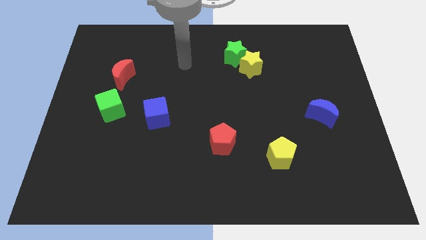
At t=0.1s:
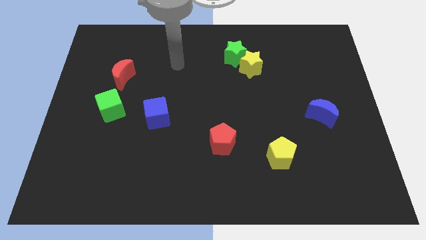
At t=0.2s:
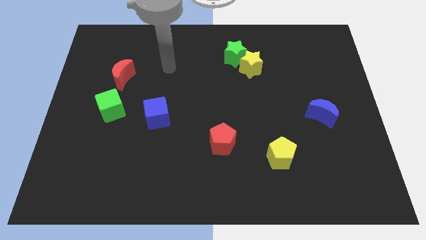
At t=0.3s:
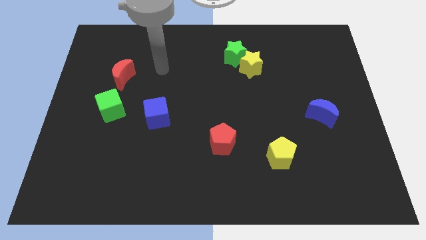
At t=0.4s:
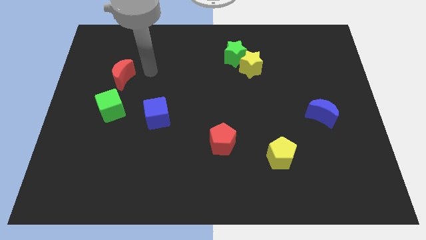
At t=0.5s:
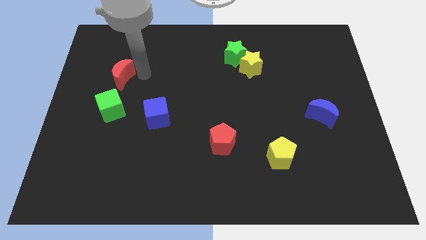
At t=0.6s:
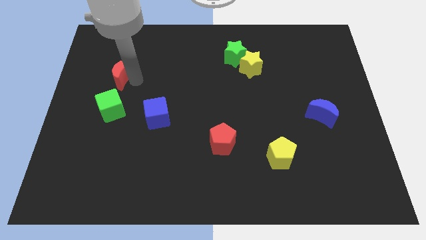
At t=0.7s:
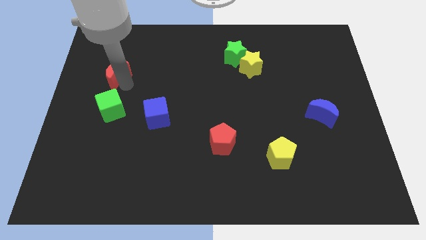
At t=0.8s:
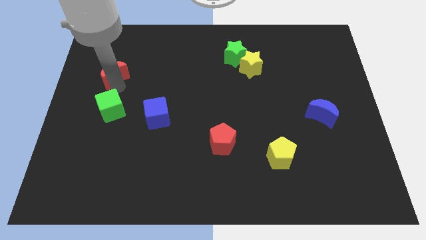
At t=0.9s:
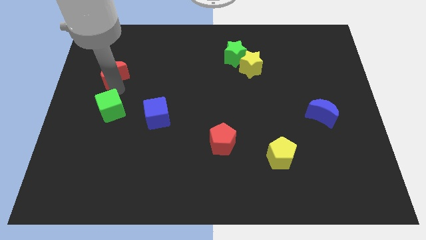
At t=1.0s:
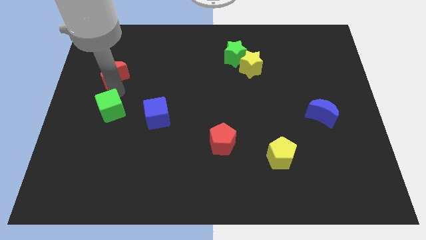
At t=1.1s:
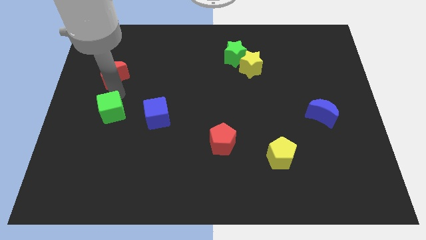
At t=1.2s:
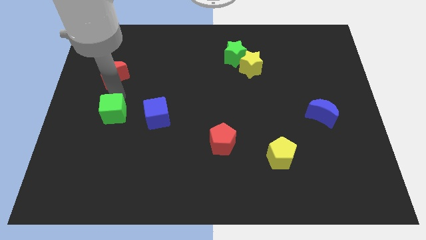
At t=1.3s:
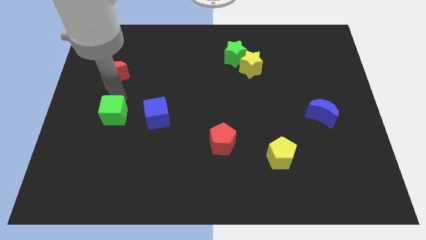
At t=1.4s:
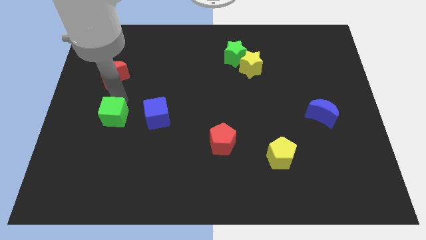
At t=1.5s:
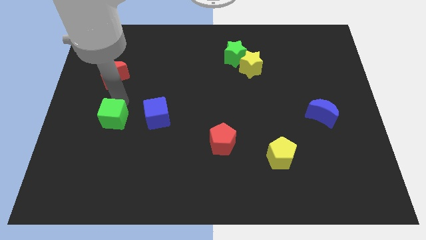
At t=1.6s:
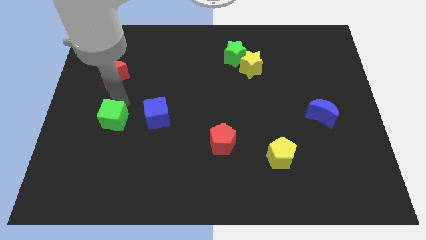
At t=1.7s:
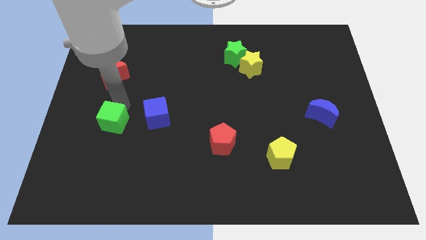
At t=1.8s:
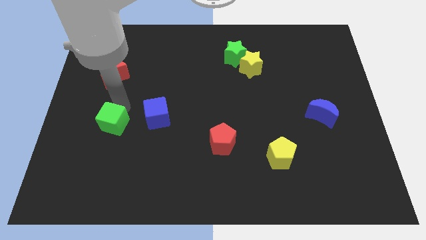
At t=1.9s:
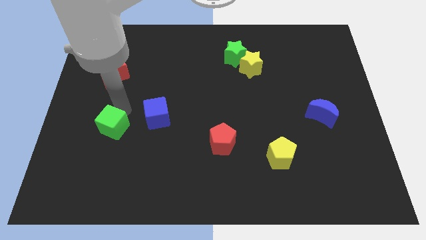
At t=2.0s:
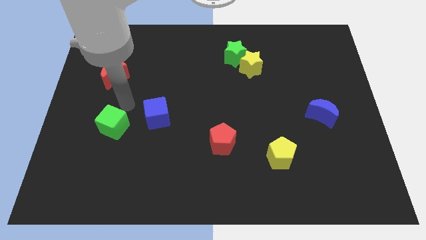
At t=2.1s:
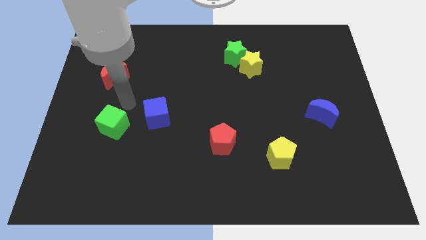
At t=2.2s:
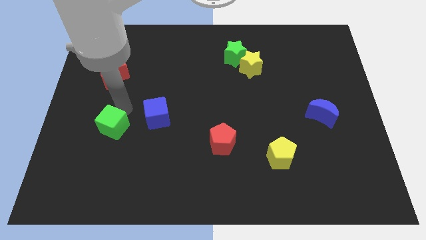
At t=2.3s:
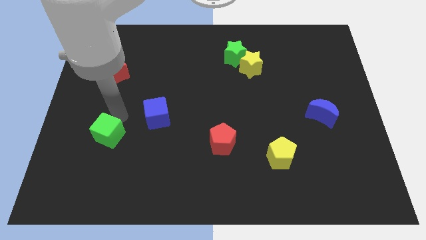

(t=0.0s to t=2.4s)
slide the green cube downwards slightly

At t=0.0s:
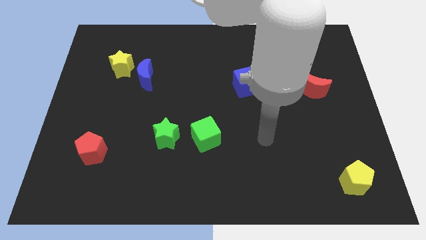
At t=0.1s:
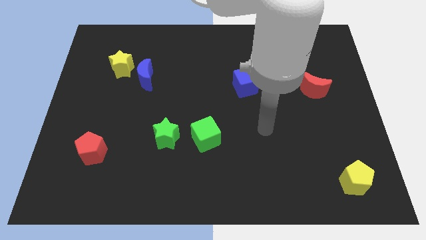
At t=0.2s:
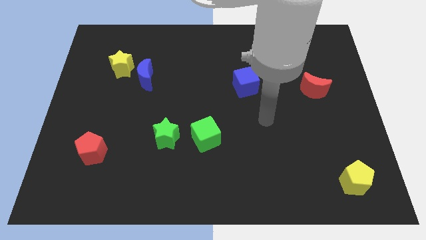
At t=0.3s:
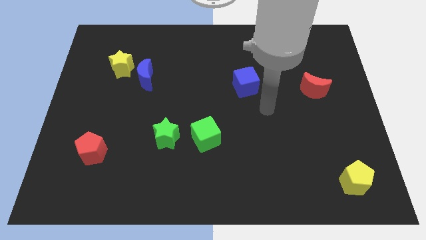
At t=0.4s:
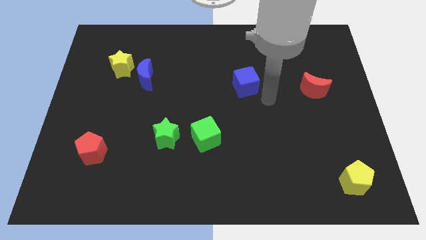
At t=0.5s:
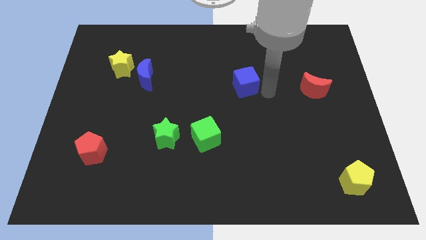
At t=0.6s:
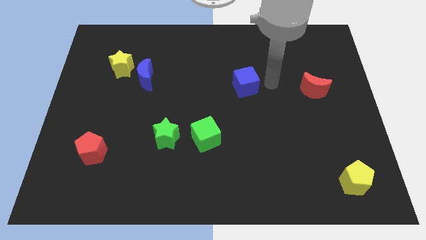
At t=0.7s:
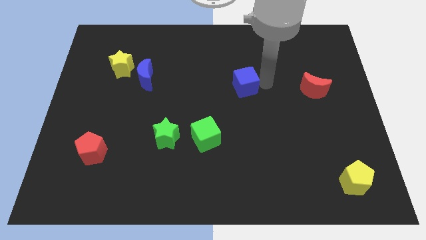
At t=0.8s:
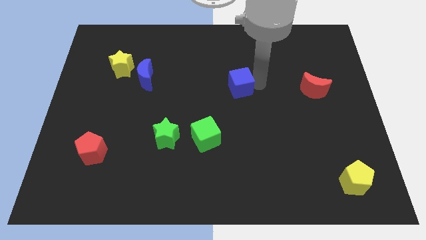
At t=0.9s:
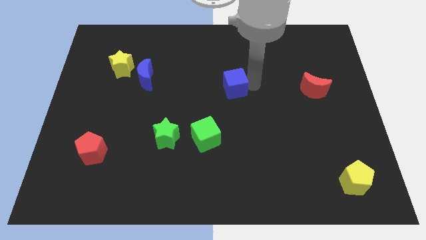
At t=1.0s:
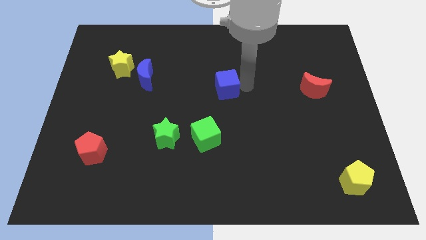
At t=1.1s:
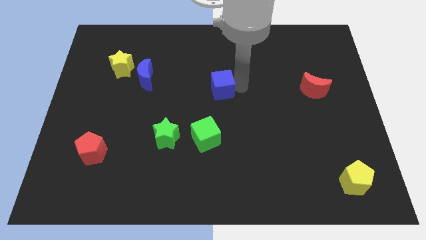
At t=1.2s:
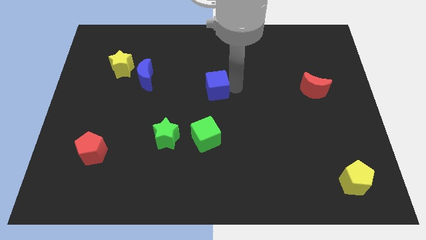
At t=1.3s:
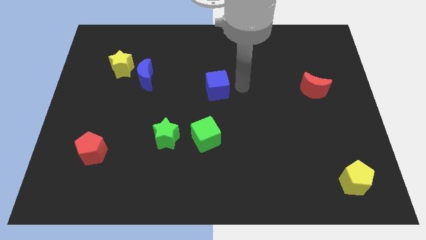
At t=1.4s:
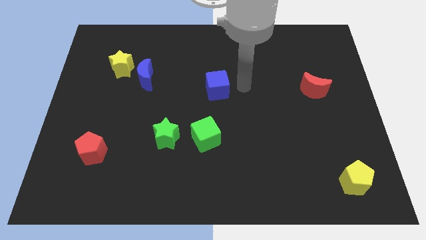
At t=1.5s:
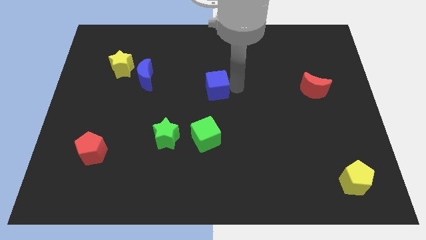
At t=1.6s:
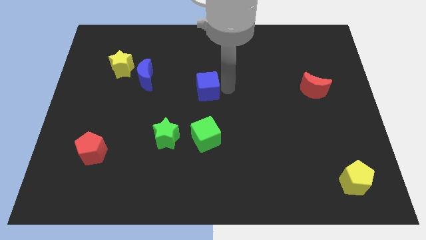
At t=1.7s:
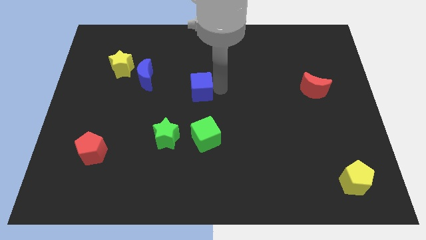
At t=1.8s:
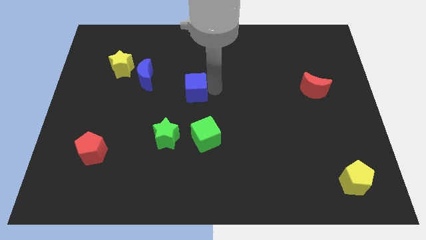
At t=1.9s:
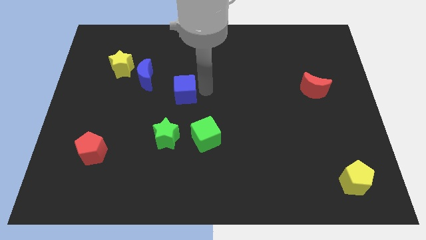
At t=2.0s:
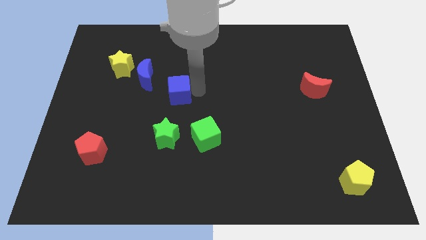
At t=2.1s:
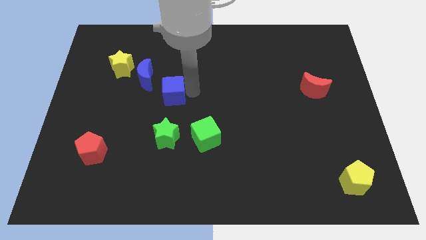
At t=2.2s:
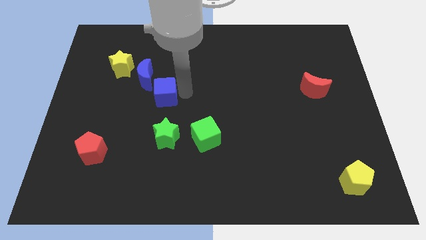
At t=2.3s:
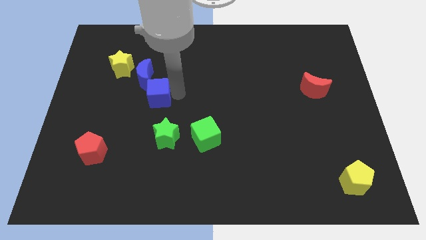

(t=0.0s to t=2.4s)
move the blue cube left

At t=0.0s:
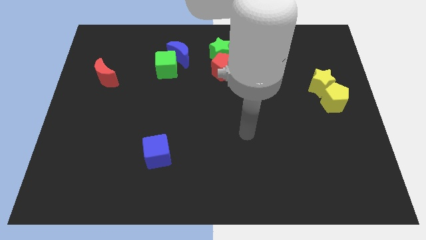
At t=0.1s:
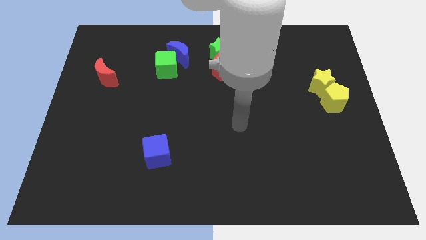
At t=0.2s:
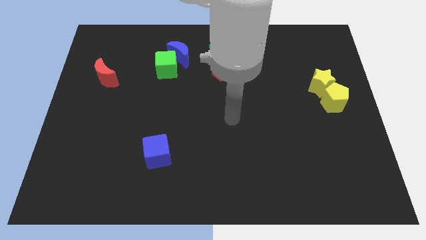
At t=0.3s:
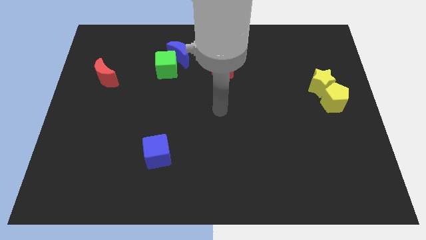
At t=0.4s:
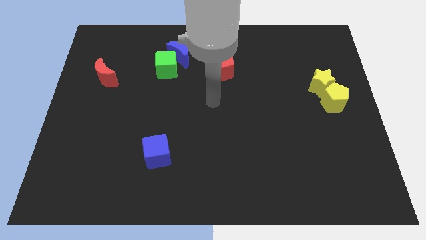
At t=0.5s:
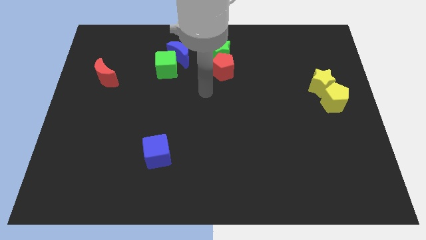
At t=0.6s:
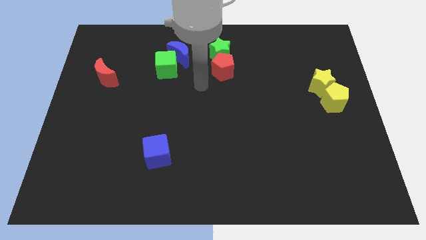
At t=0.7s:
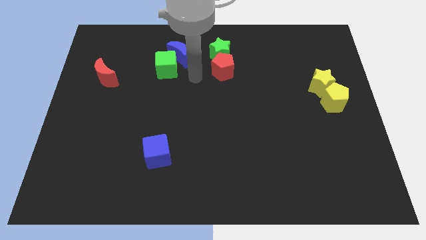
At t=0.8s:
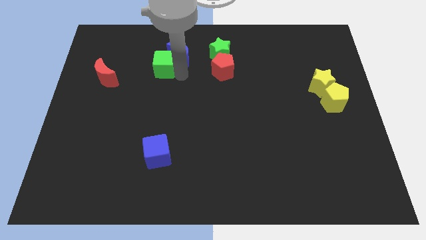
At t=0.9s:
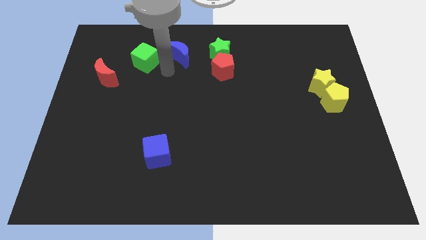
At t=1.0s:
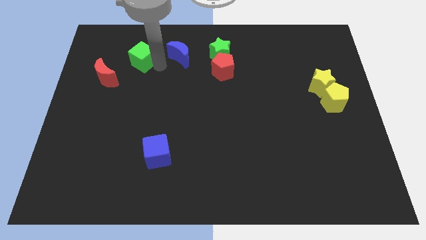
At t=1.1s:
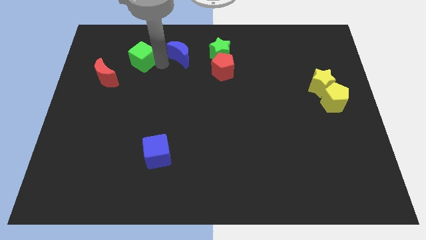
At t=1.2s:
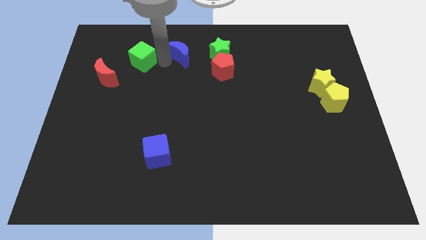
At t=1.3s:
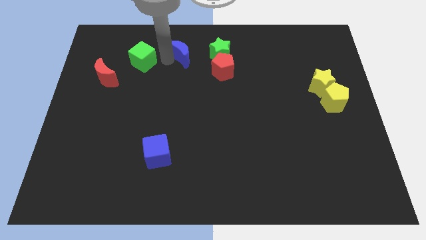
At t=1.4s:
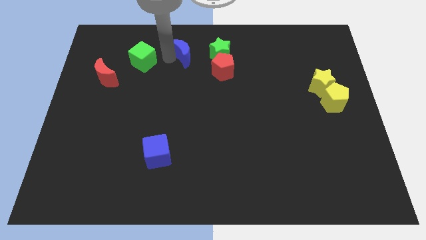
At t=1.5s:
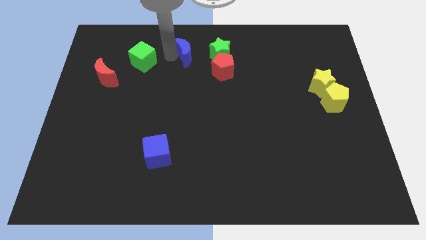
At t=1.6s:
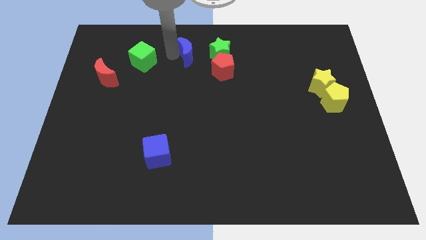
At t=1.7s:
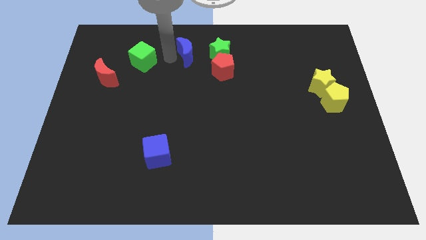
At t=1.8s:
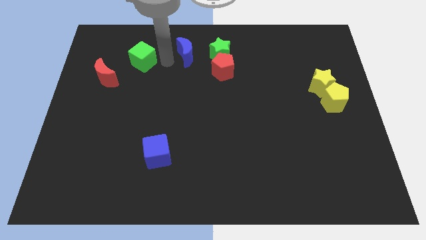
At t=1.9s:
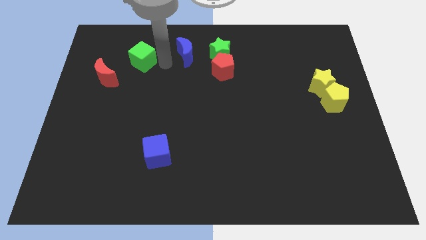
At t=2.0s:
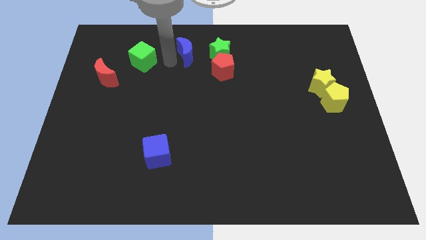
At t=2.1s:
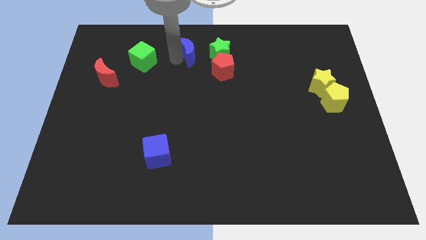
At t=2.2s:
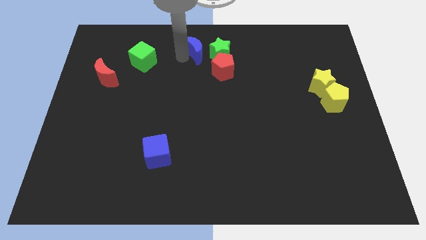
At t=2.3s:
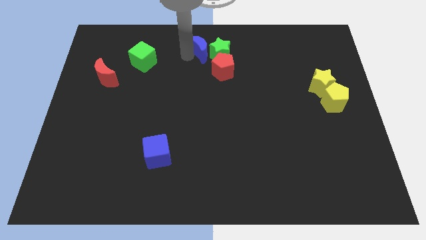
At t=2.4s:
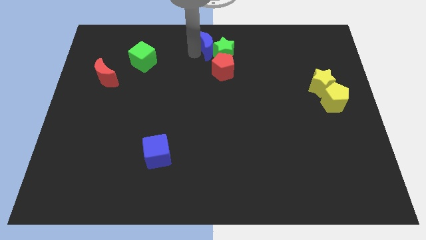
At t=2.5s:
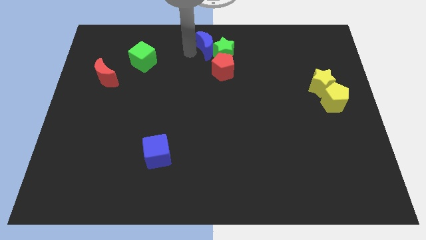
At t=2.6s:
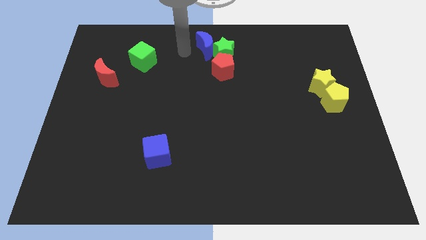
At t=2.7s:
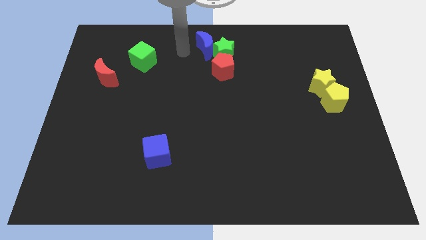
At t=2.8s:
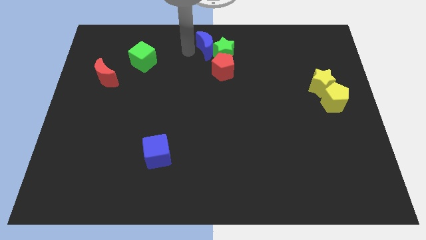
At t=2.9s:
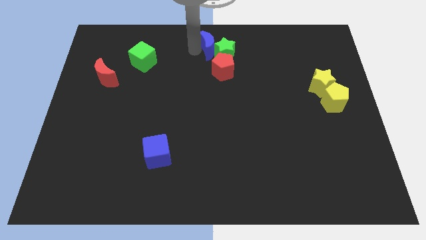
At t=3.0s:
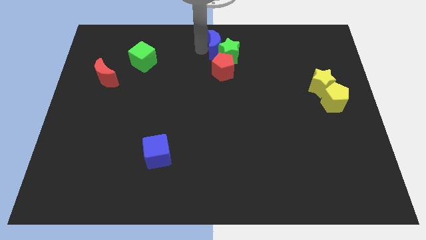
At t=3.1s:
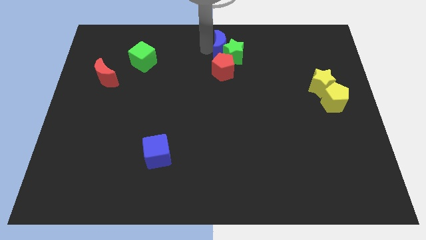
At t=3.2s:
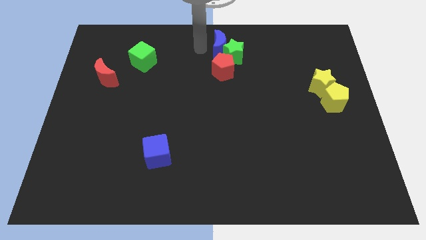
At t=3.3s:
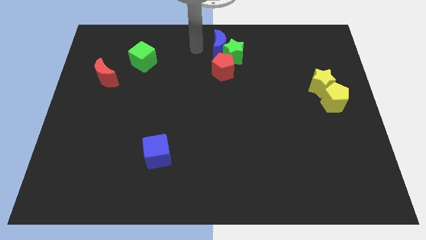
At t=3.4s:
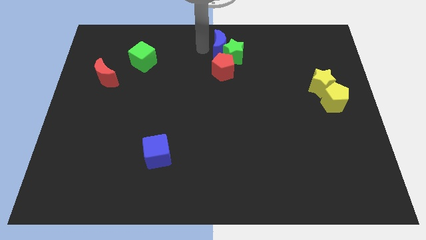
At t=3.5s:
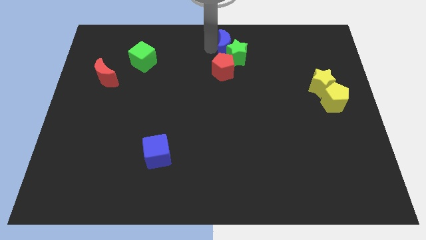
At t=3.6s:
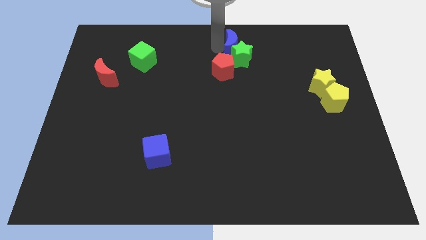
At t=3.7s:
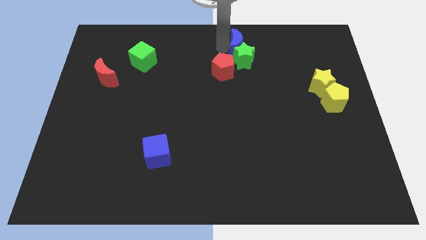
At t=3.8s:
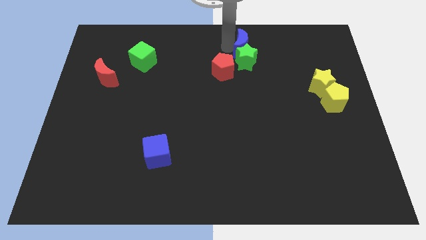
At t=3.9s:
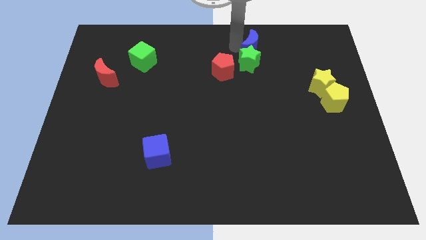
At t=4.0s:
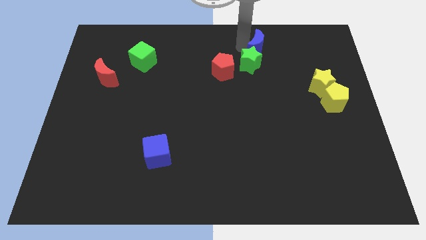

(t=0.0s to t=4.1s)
slide the blue moon to the right
